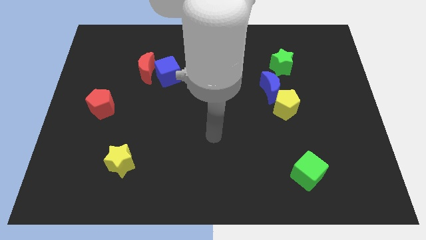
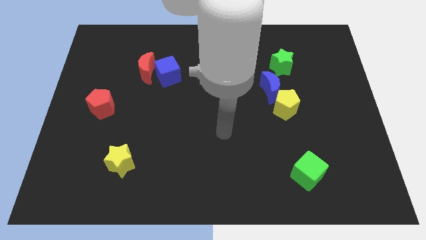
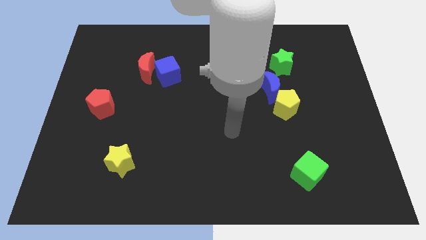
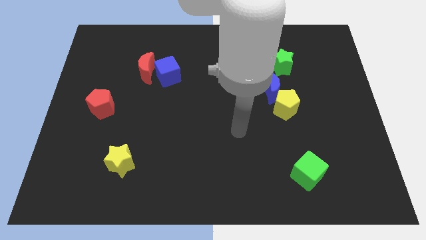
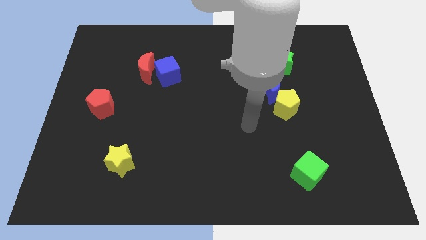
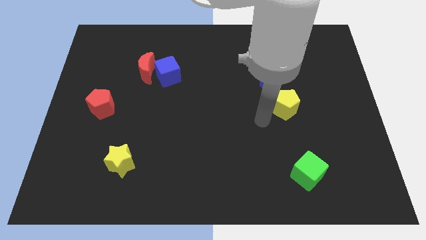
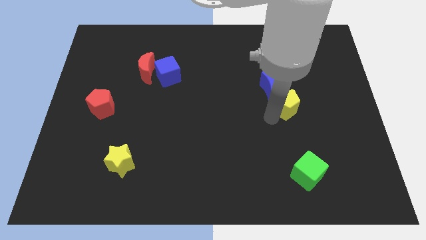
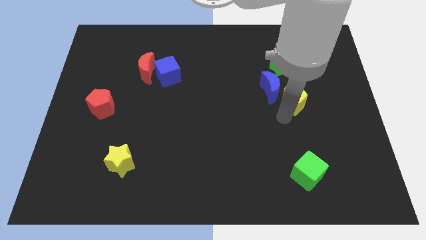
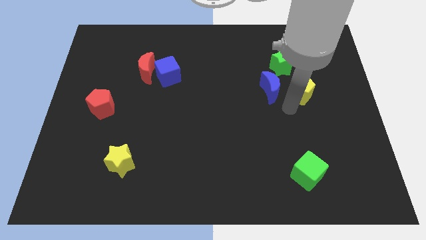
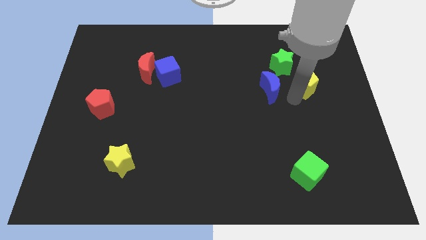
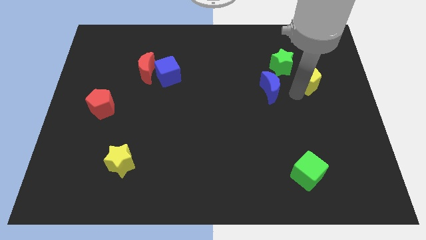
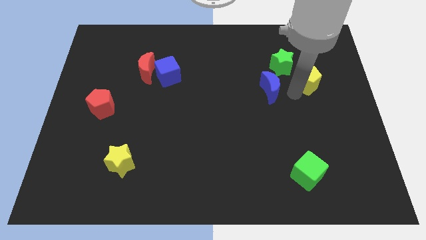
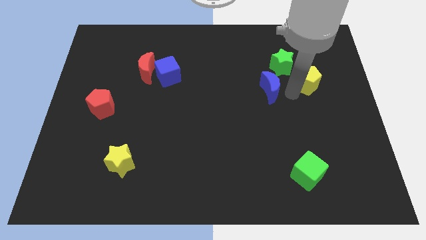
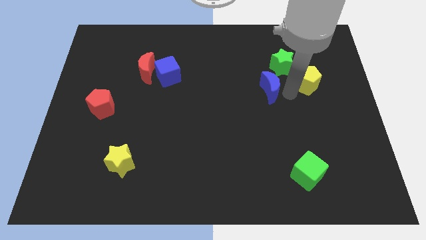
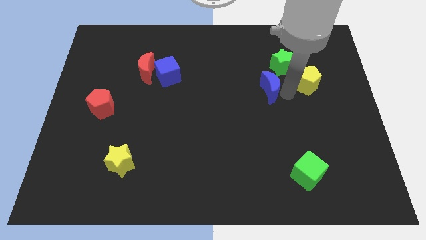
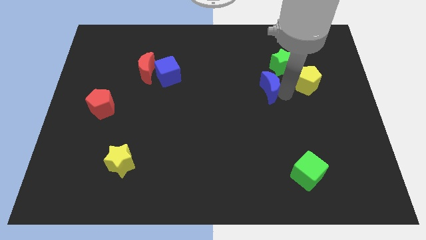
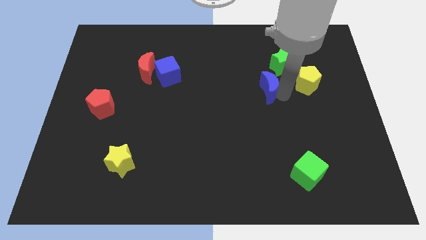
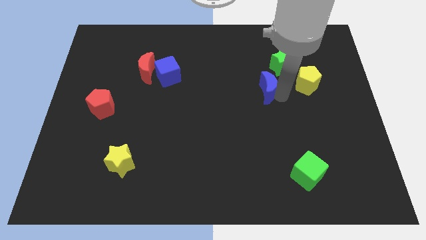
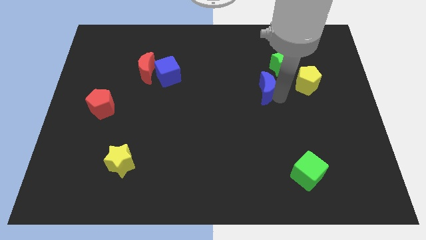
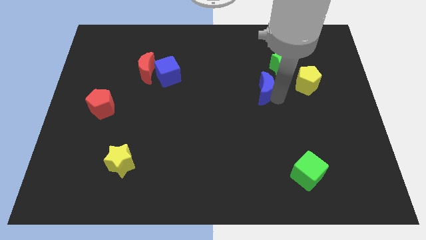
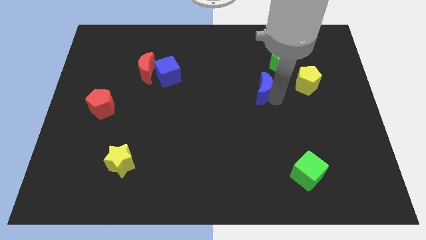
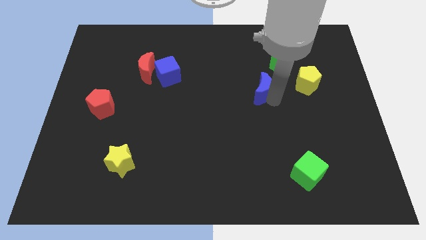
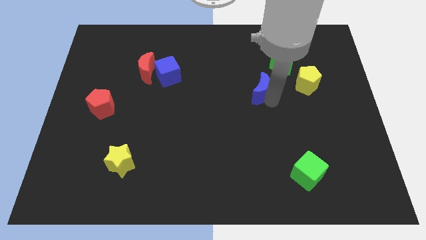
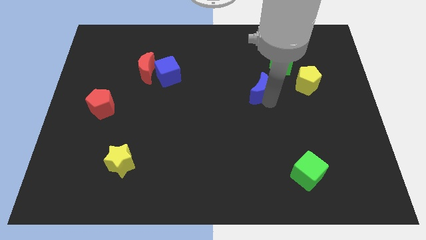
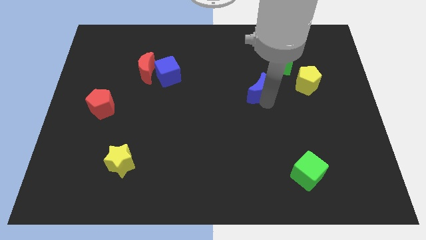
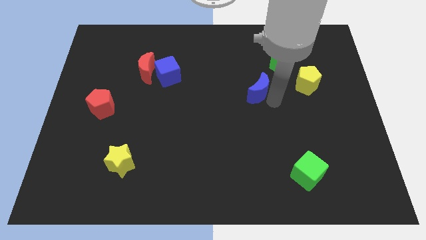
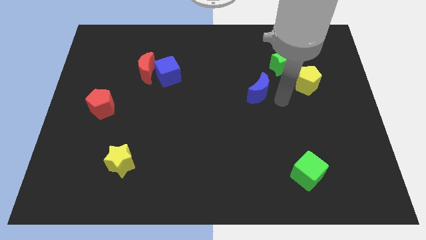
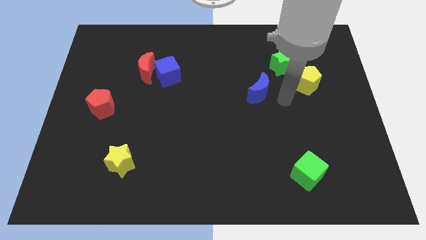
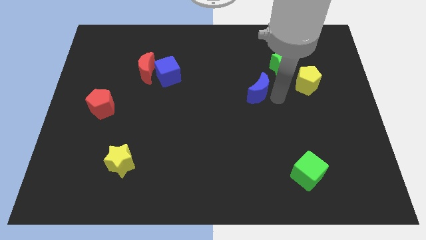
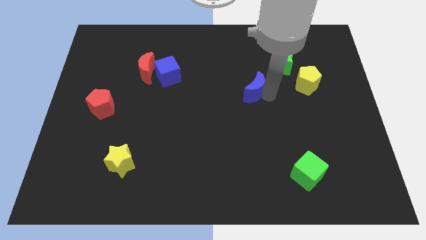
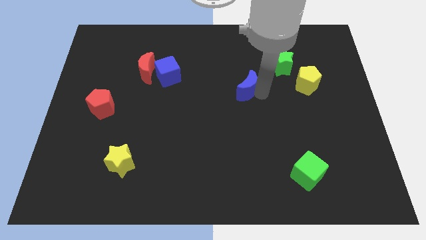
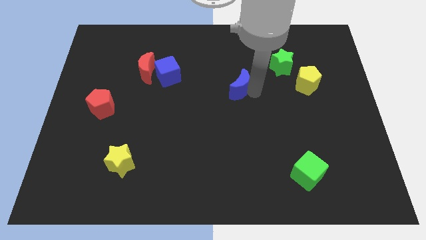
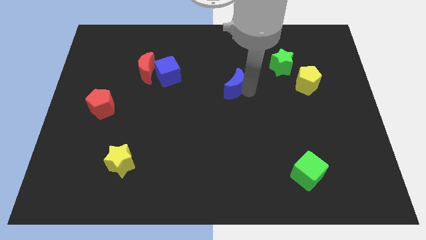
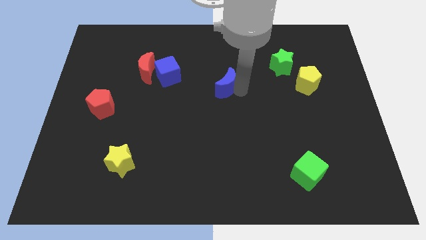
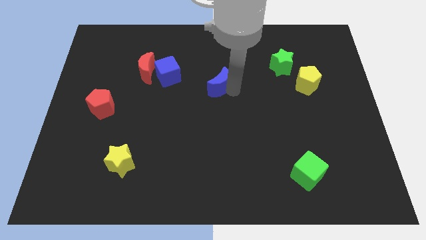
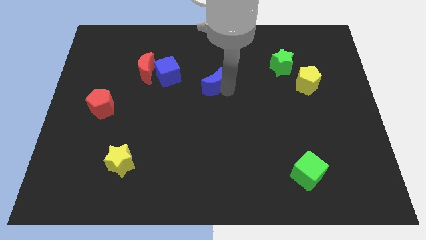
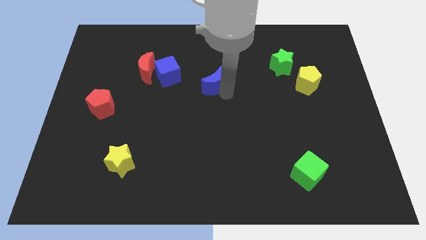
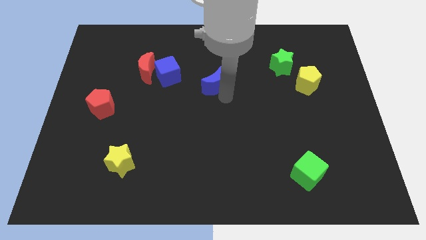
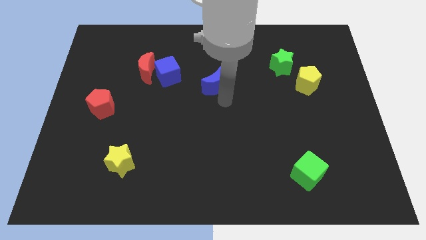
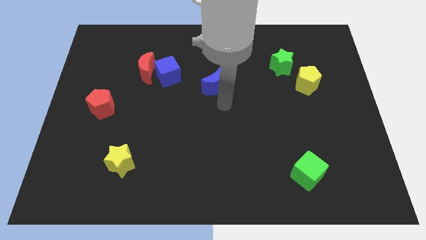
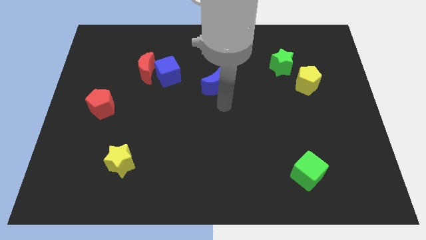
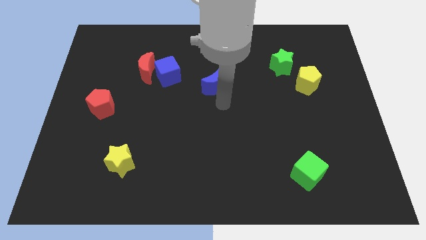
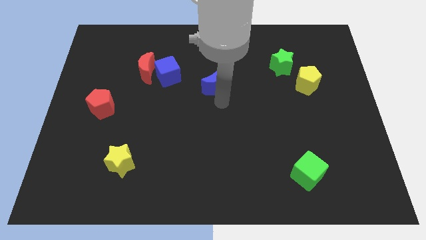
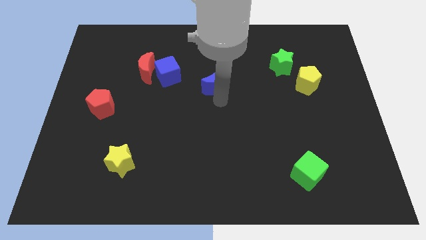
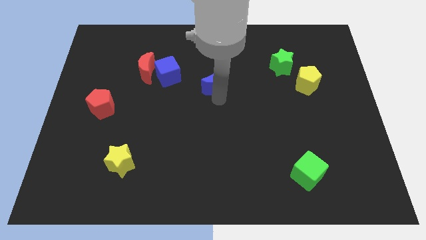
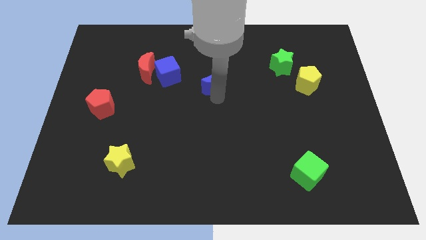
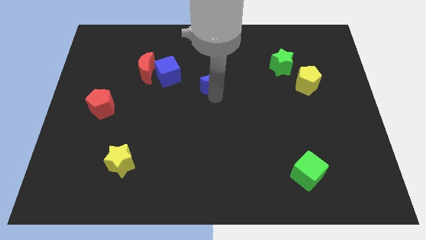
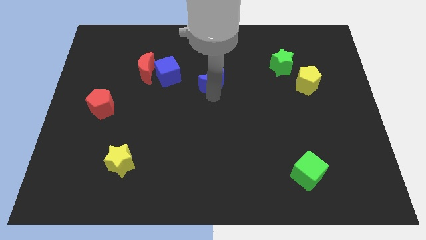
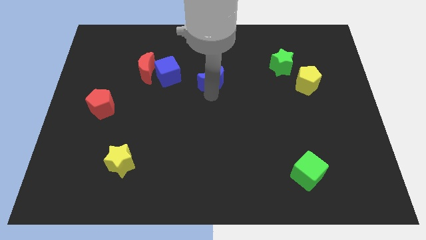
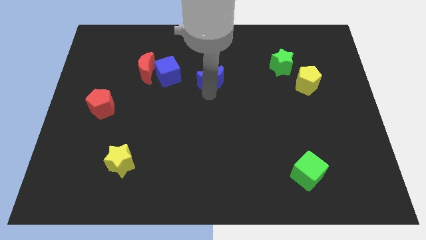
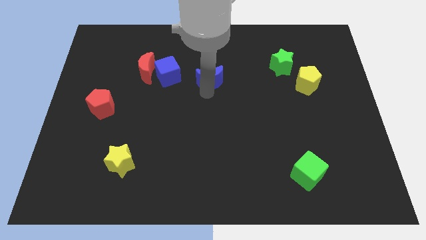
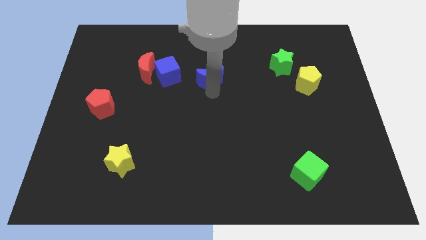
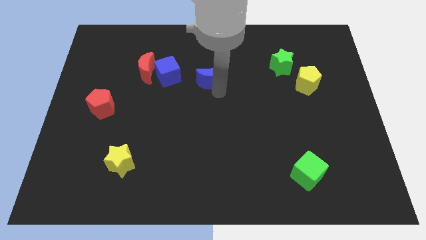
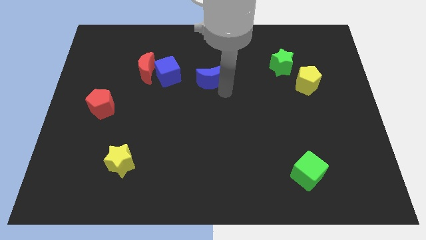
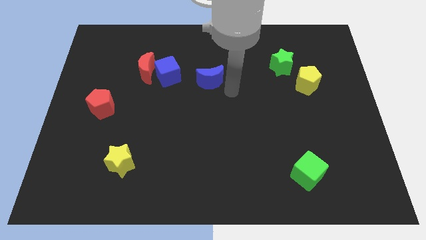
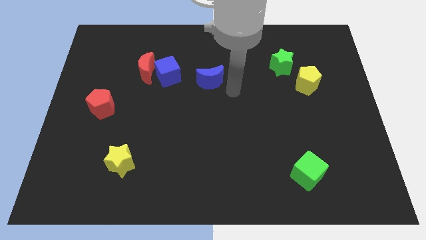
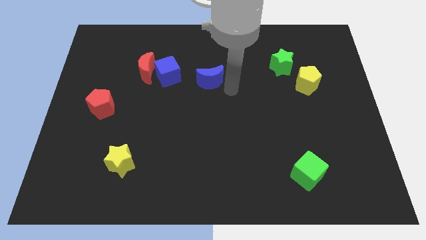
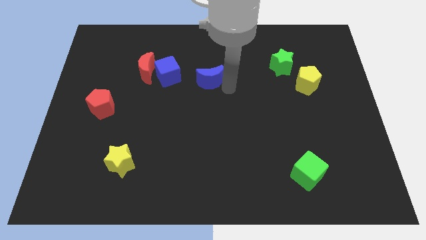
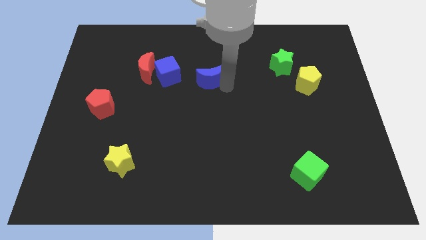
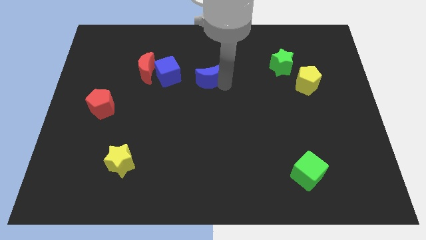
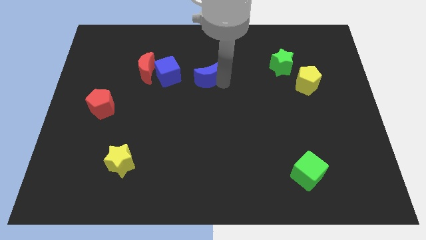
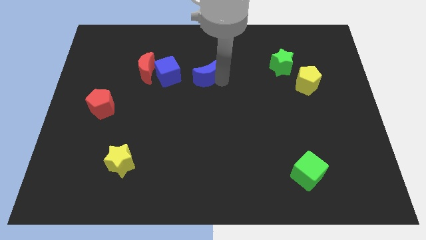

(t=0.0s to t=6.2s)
slide the blue moon right of the red moon

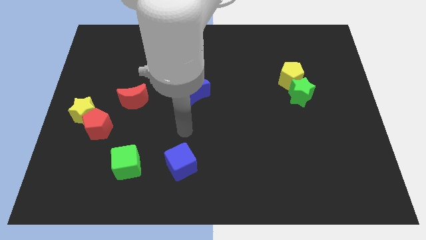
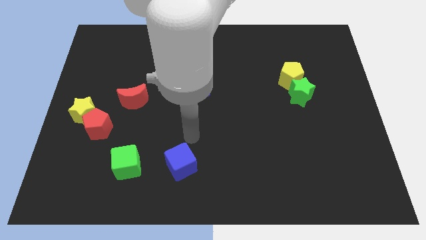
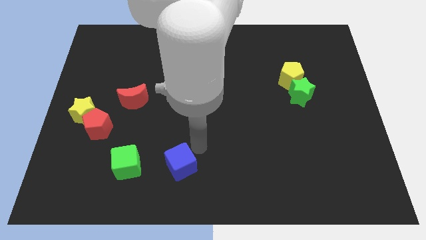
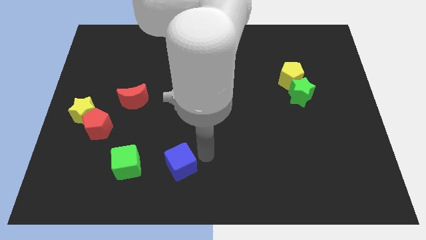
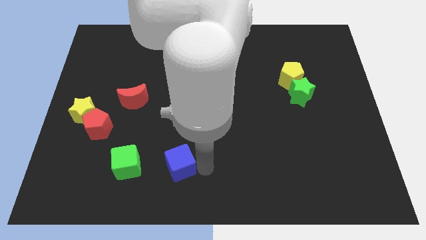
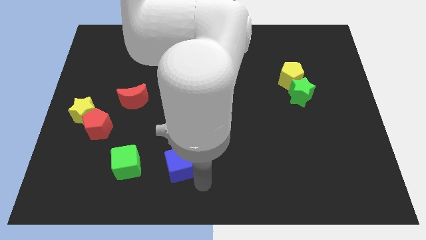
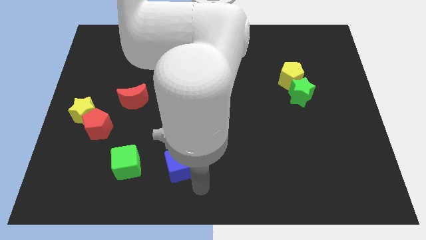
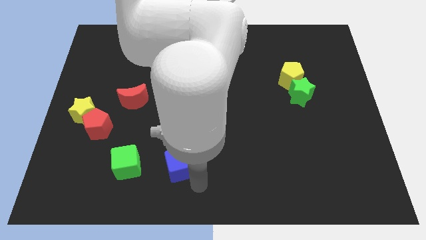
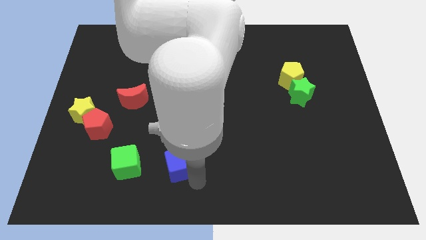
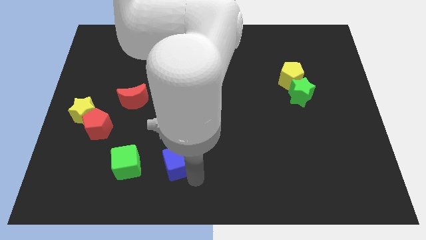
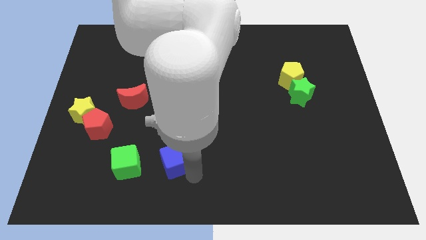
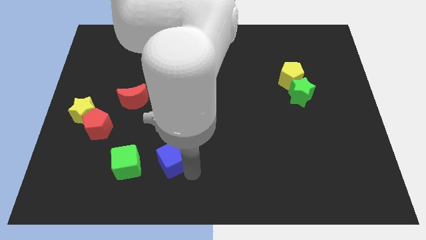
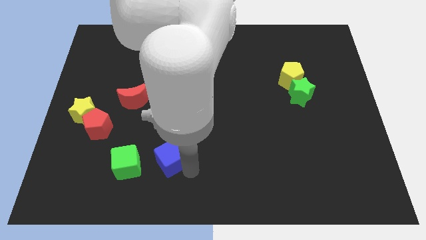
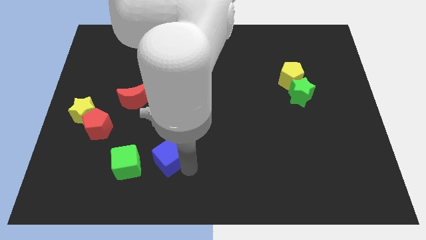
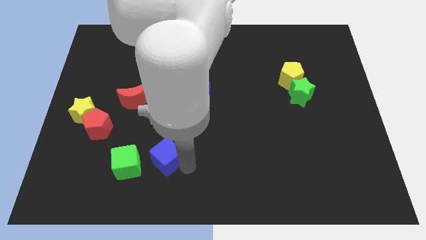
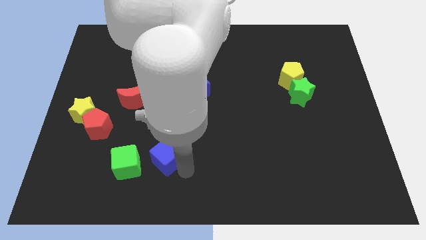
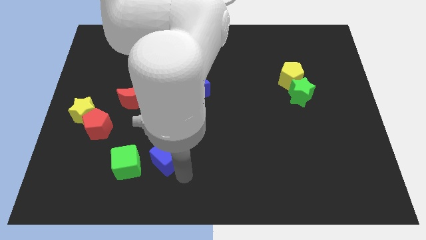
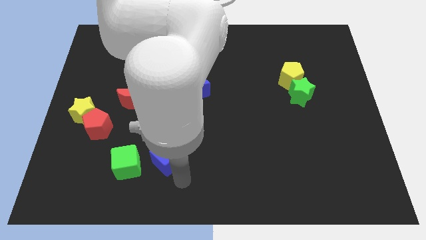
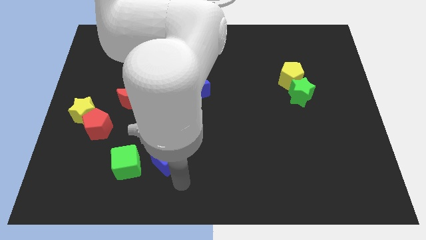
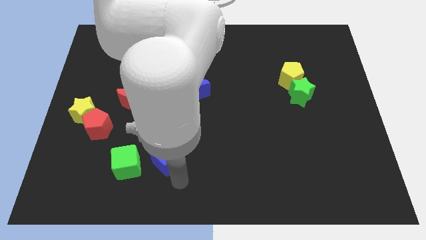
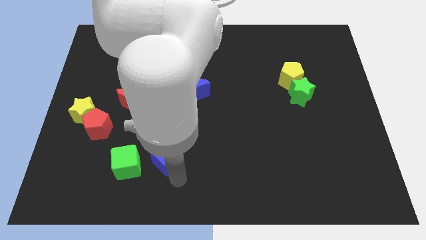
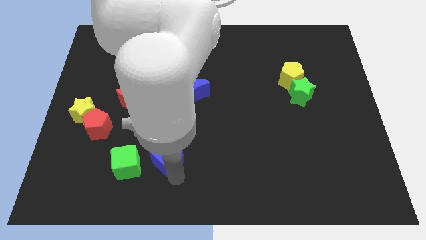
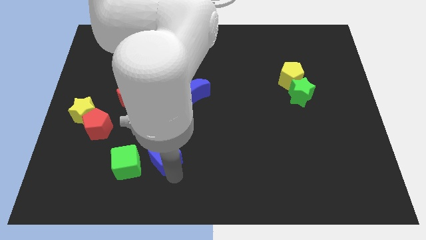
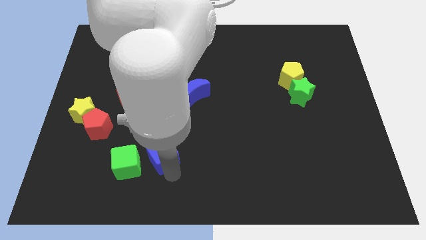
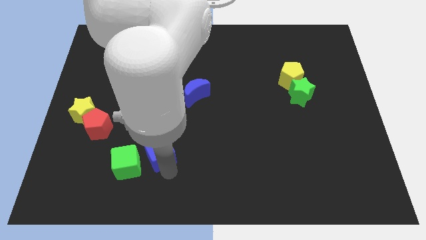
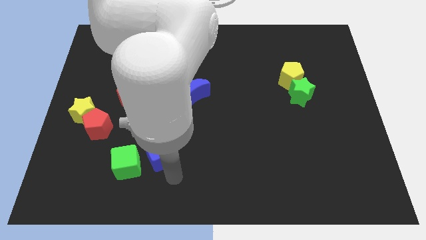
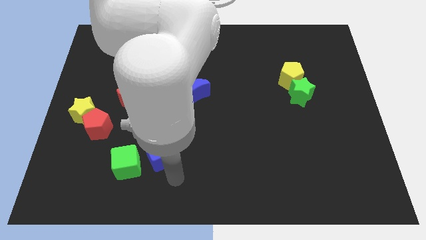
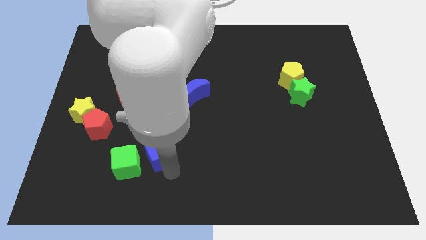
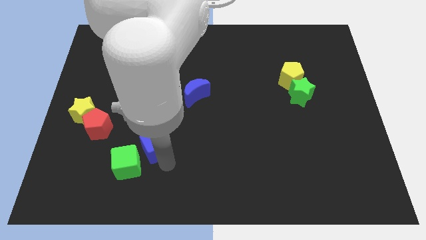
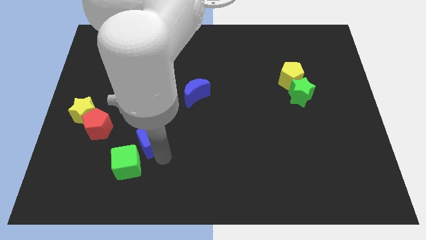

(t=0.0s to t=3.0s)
put the blue cube to the right of the red pentagon
